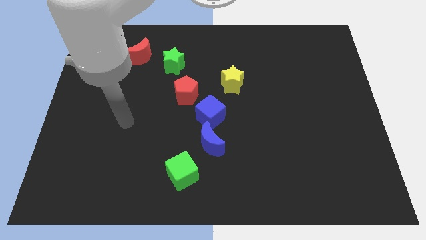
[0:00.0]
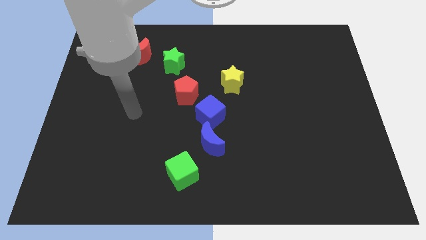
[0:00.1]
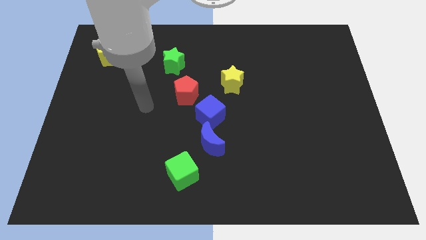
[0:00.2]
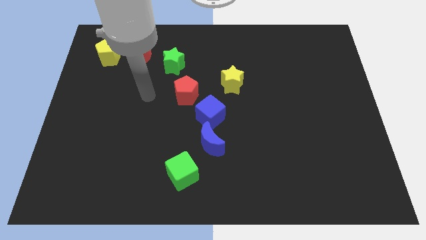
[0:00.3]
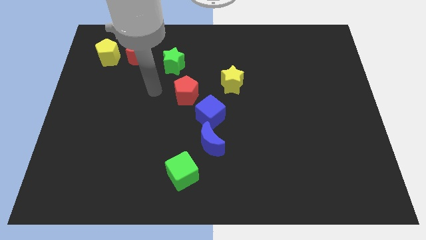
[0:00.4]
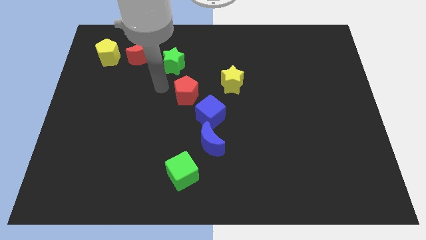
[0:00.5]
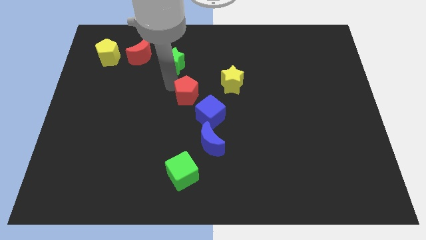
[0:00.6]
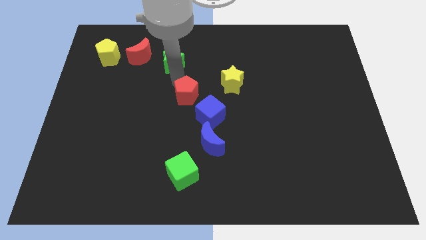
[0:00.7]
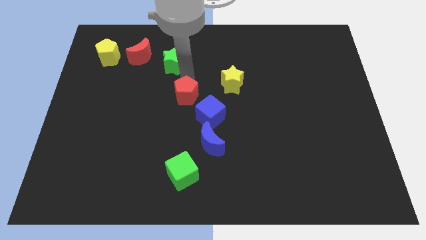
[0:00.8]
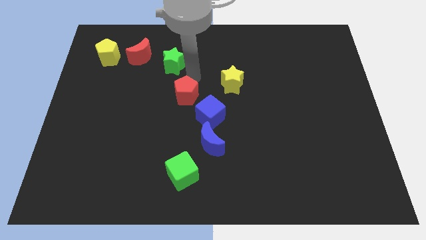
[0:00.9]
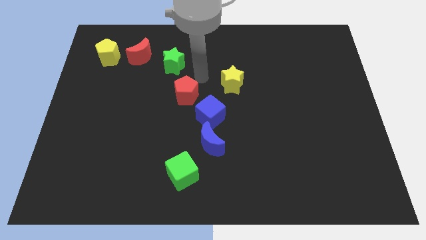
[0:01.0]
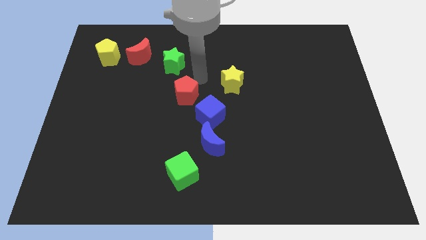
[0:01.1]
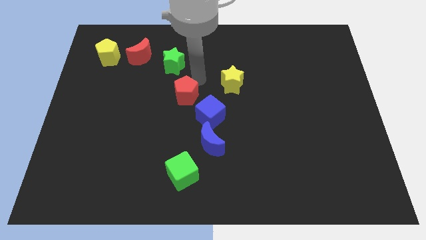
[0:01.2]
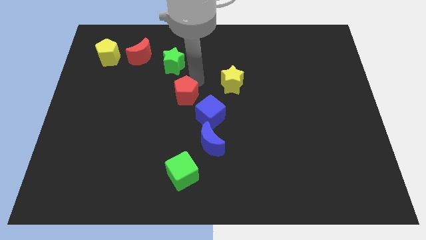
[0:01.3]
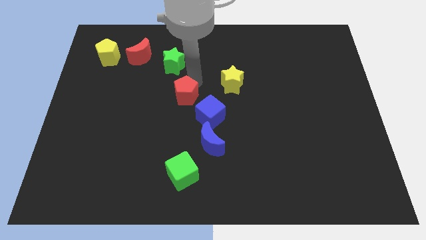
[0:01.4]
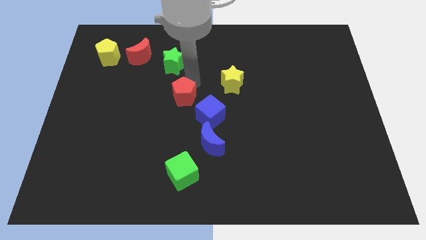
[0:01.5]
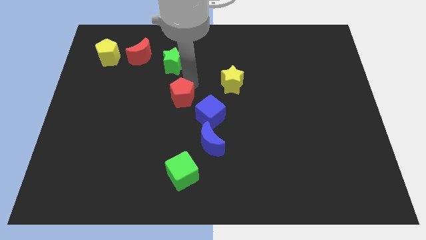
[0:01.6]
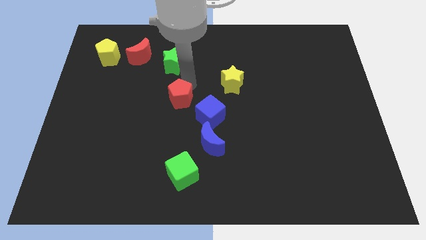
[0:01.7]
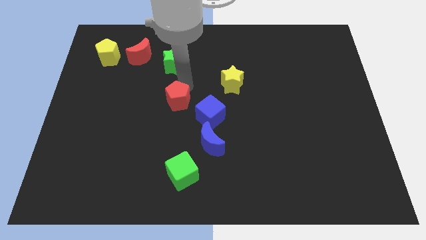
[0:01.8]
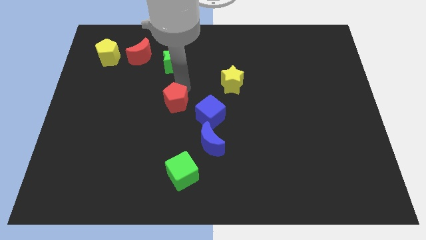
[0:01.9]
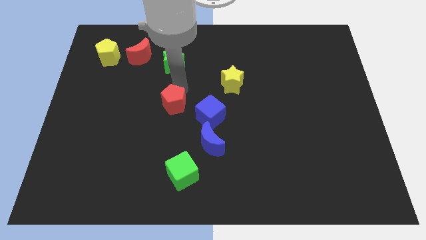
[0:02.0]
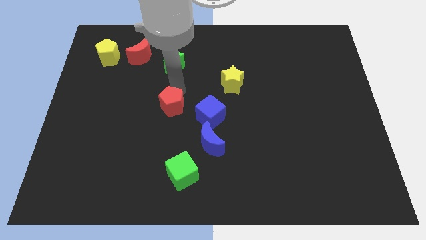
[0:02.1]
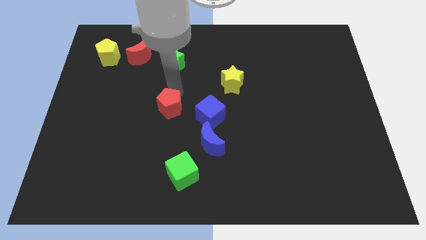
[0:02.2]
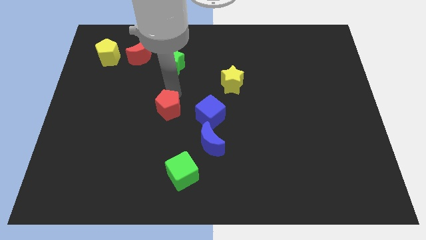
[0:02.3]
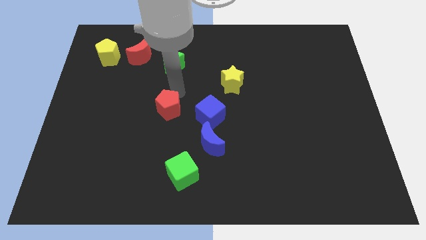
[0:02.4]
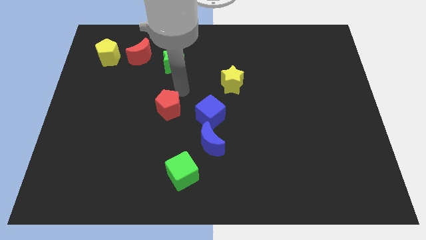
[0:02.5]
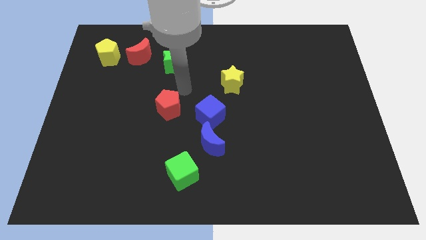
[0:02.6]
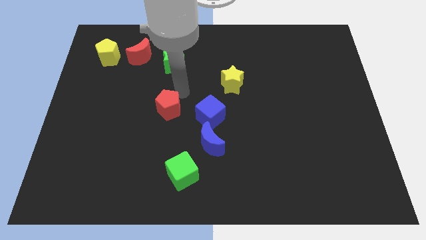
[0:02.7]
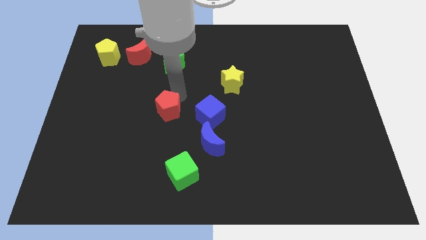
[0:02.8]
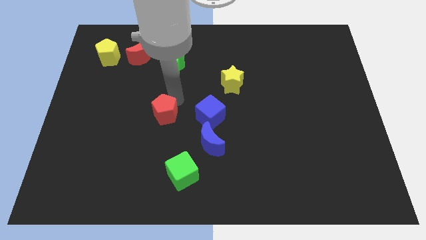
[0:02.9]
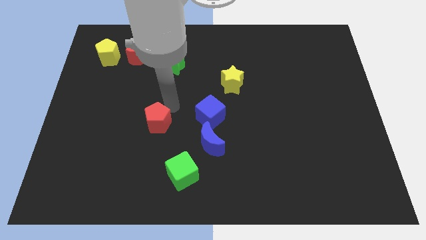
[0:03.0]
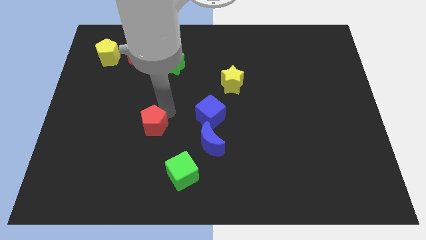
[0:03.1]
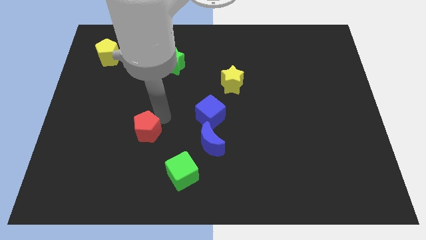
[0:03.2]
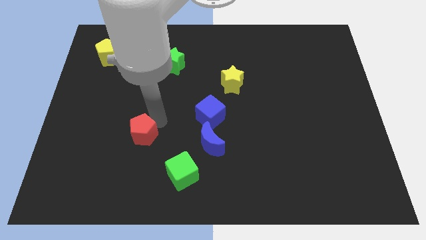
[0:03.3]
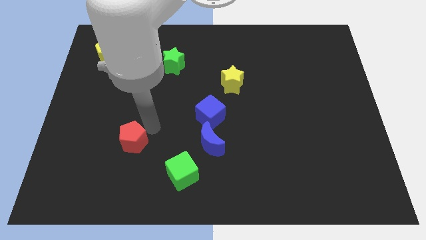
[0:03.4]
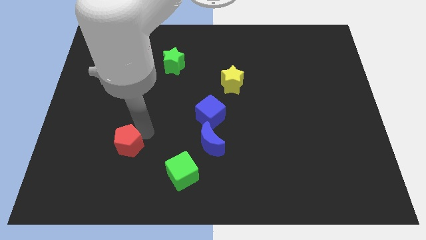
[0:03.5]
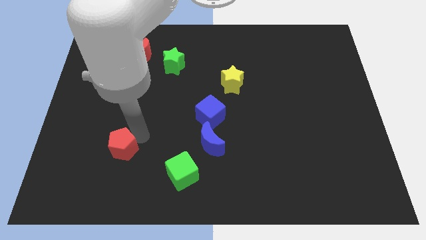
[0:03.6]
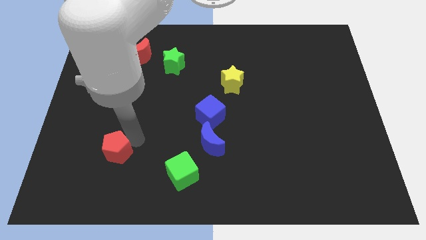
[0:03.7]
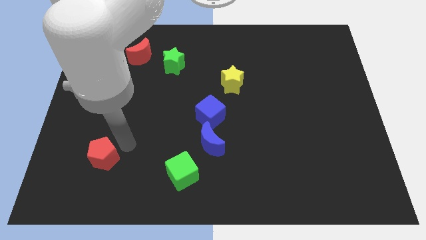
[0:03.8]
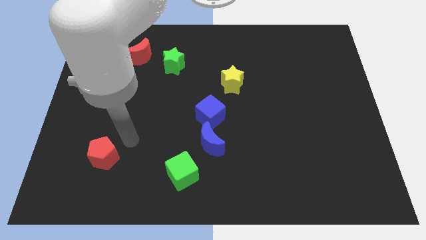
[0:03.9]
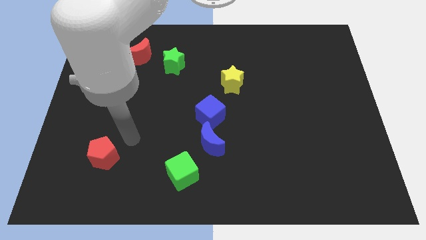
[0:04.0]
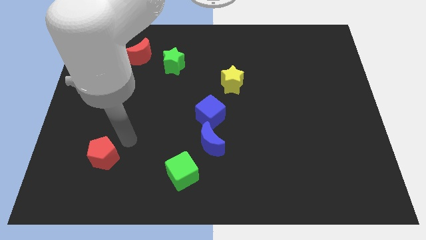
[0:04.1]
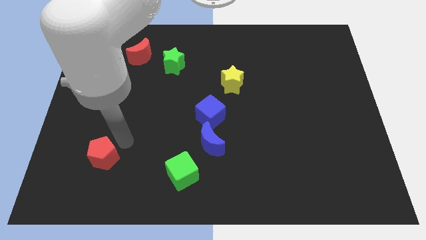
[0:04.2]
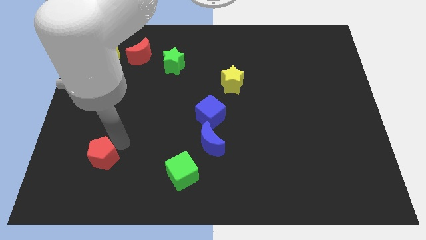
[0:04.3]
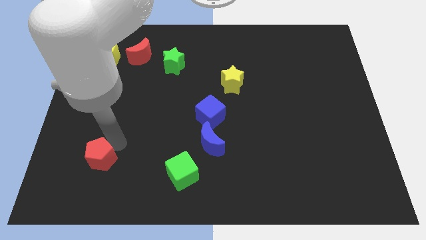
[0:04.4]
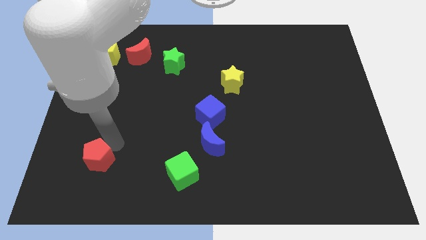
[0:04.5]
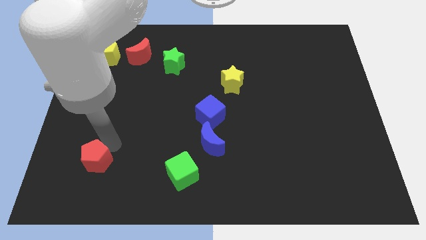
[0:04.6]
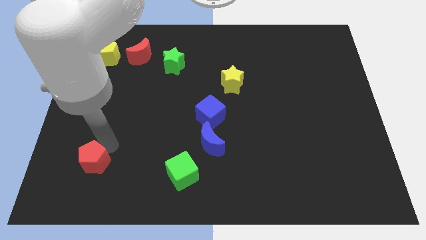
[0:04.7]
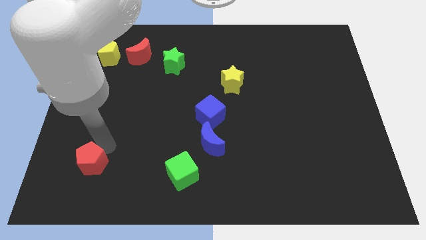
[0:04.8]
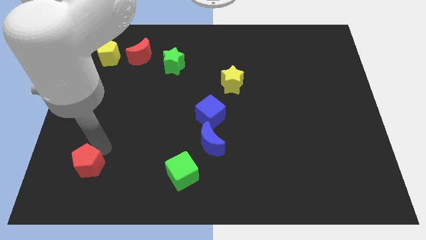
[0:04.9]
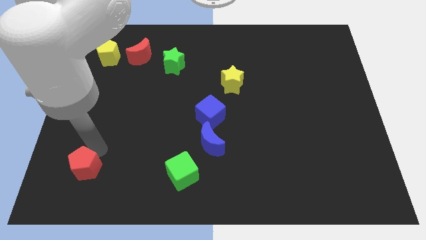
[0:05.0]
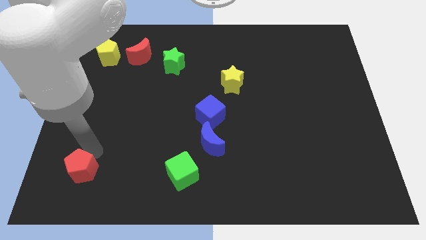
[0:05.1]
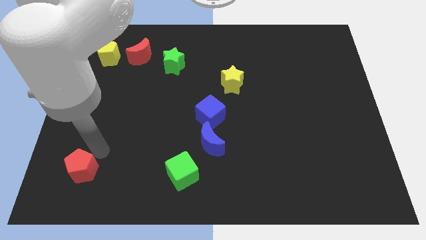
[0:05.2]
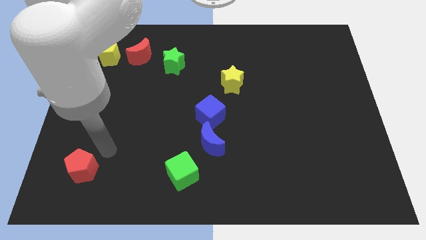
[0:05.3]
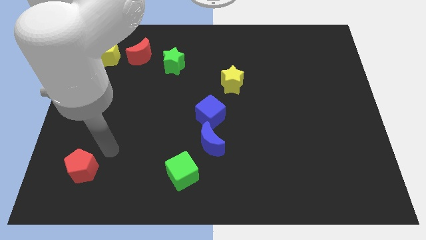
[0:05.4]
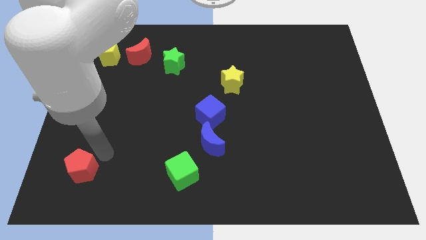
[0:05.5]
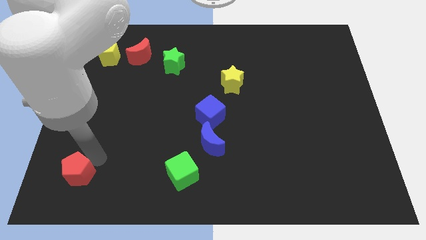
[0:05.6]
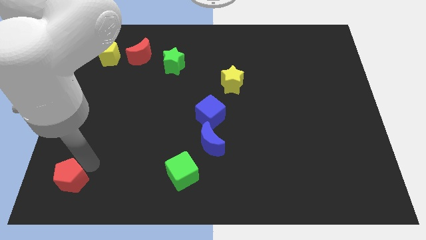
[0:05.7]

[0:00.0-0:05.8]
move the red pentagon to the lower left corner

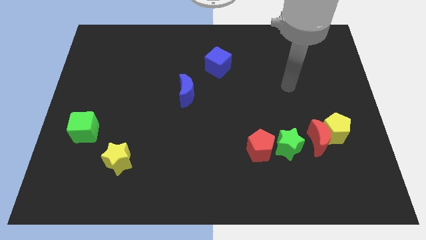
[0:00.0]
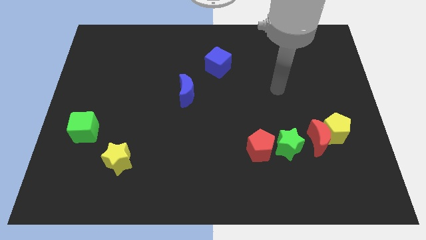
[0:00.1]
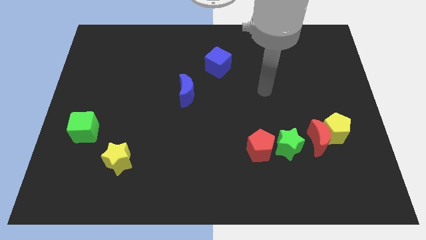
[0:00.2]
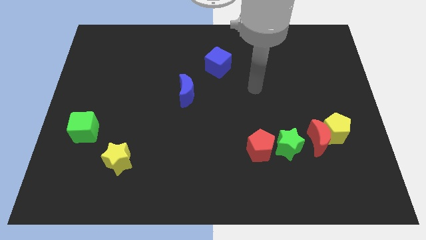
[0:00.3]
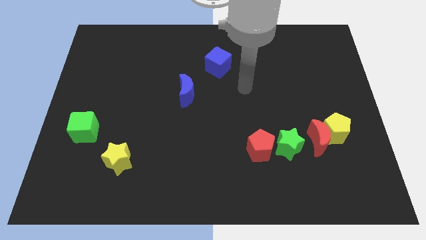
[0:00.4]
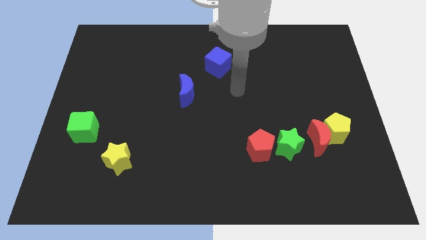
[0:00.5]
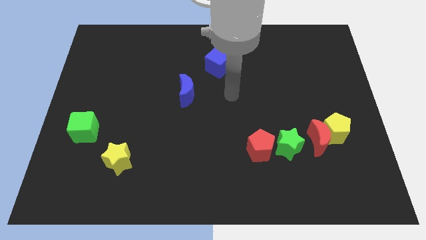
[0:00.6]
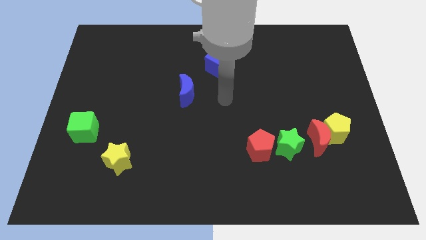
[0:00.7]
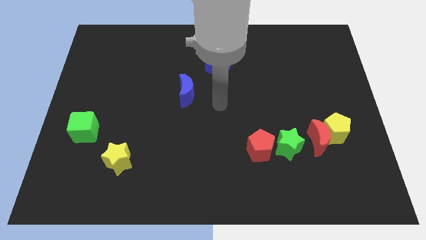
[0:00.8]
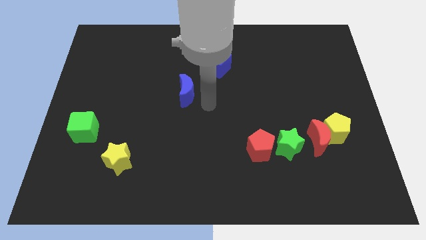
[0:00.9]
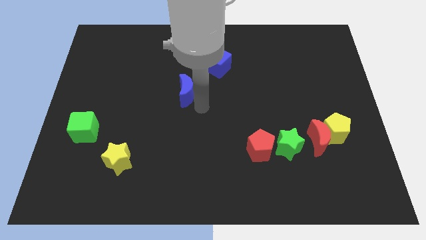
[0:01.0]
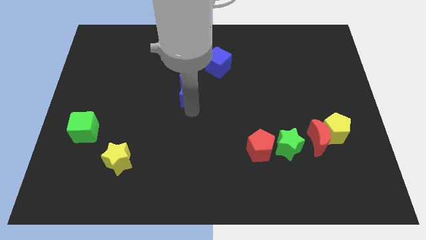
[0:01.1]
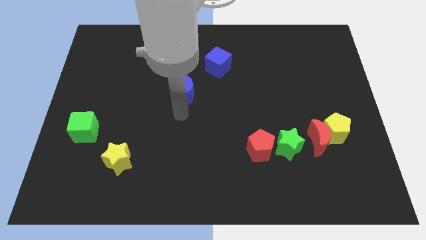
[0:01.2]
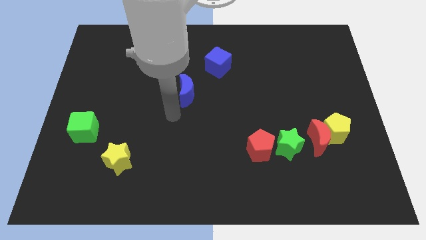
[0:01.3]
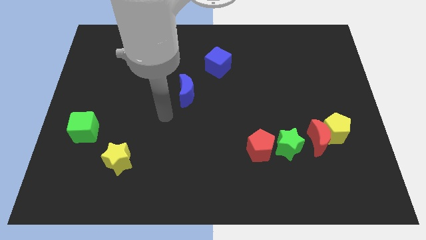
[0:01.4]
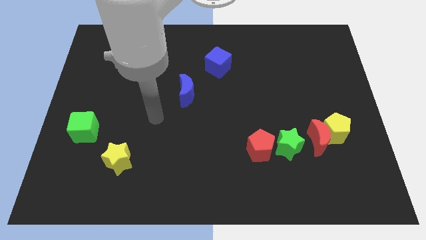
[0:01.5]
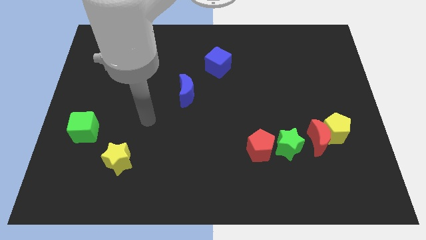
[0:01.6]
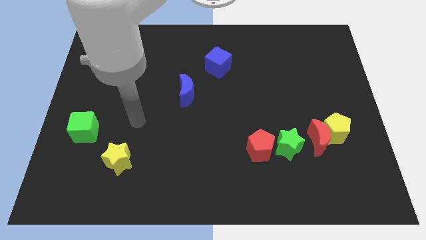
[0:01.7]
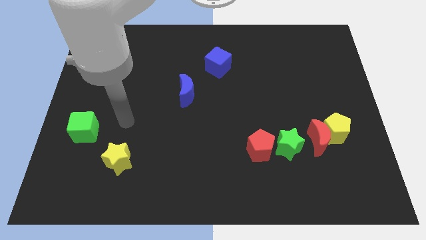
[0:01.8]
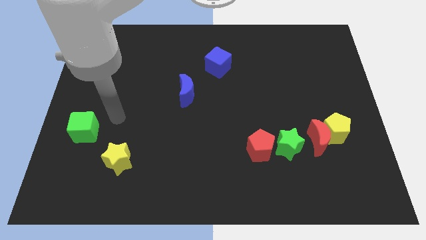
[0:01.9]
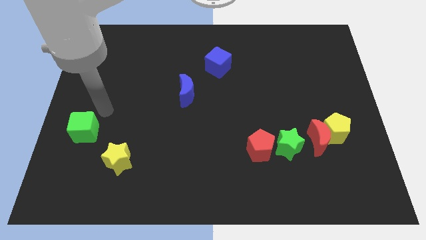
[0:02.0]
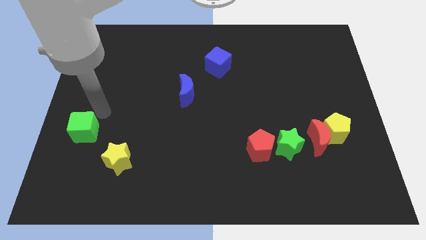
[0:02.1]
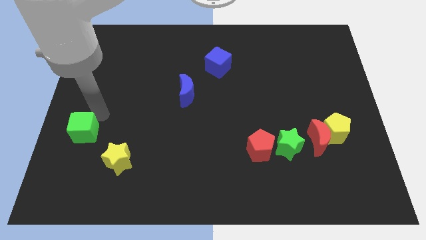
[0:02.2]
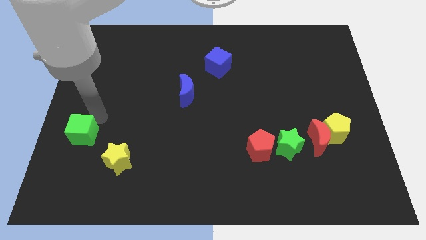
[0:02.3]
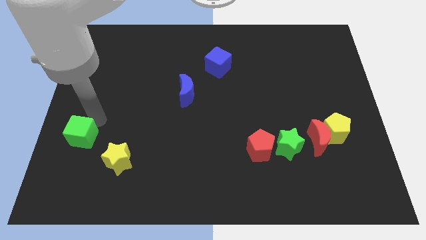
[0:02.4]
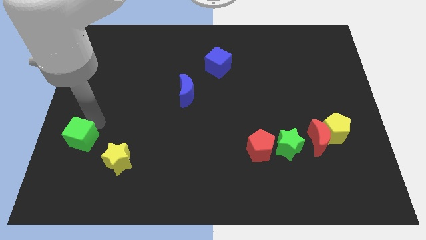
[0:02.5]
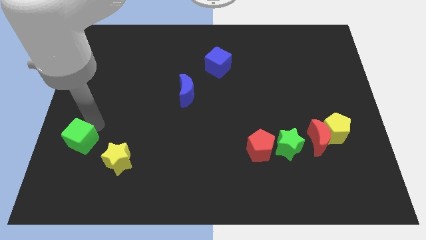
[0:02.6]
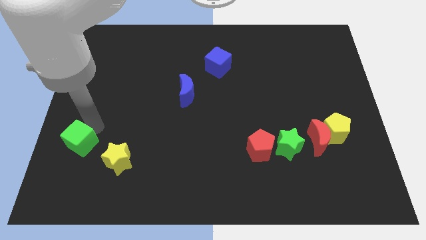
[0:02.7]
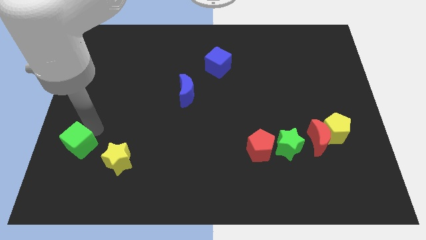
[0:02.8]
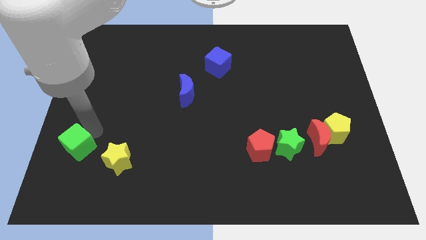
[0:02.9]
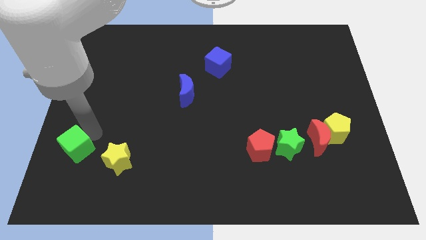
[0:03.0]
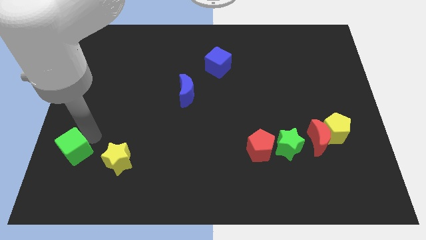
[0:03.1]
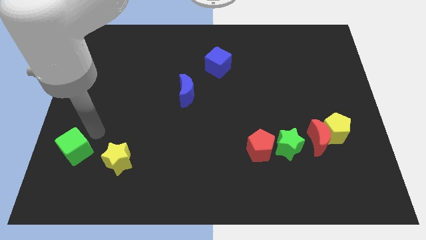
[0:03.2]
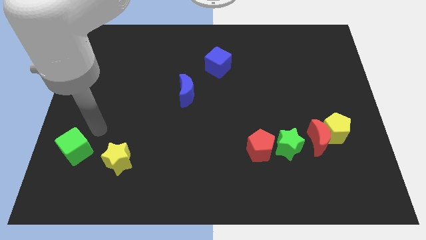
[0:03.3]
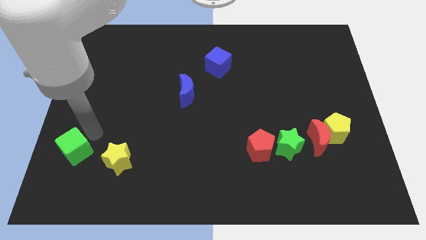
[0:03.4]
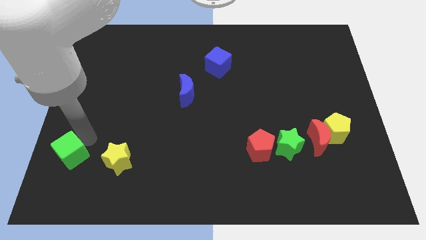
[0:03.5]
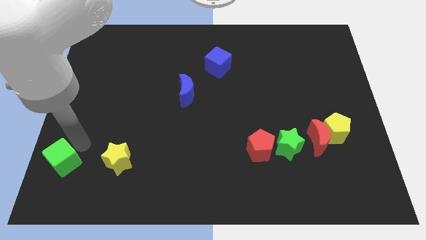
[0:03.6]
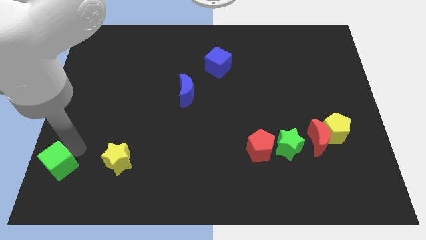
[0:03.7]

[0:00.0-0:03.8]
move the green cube to the lower left corner
